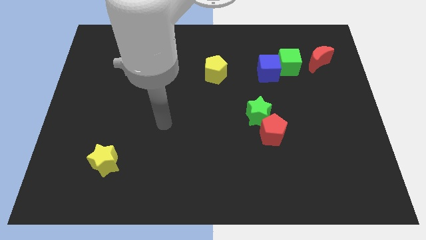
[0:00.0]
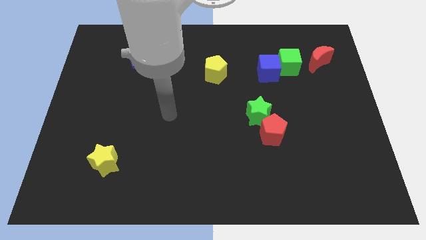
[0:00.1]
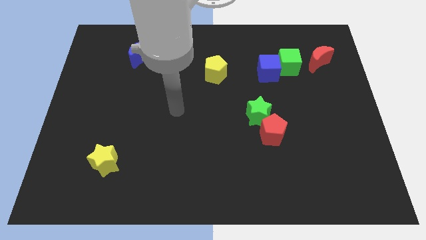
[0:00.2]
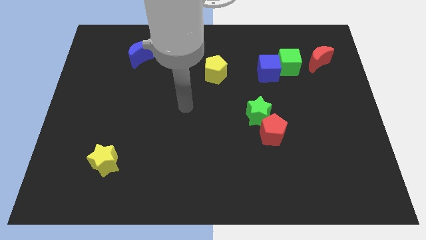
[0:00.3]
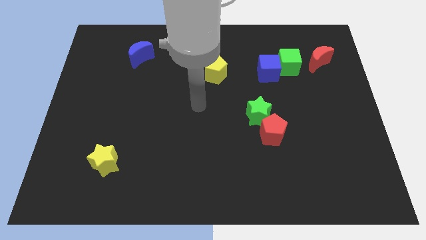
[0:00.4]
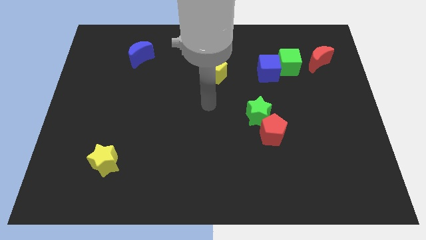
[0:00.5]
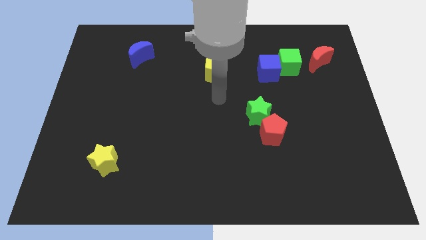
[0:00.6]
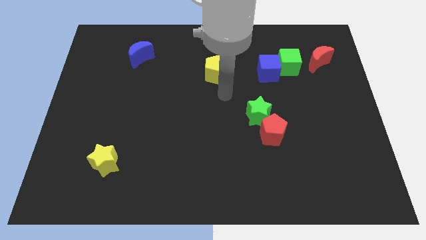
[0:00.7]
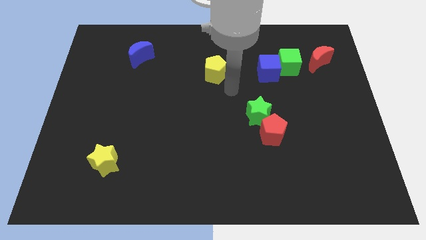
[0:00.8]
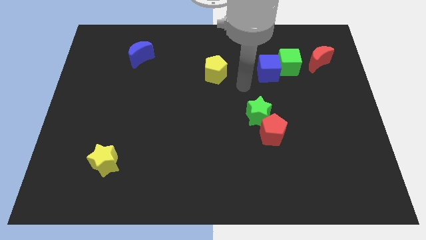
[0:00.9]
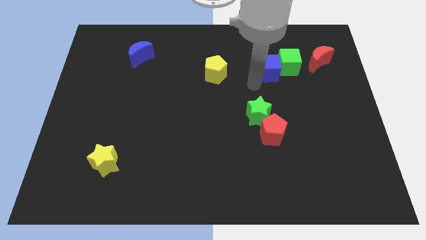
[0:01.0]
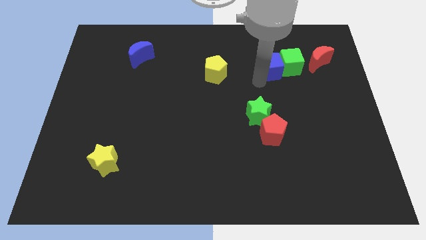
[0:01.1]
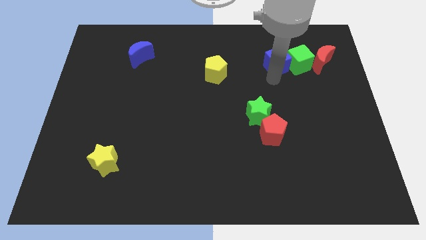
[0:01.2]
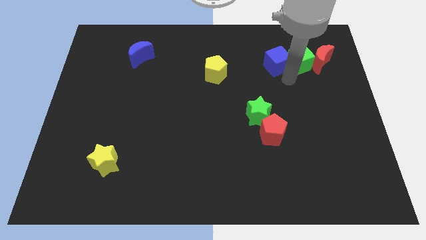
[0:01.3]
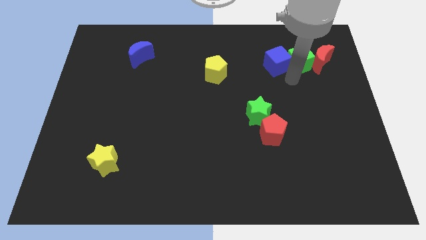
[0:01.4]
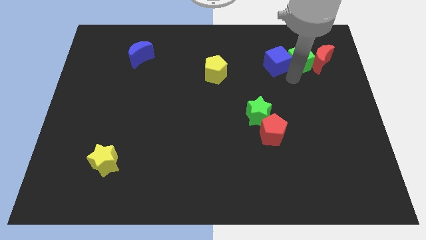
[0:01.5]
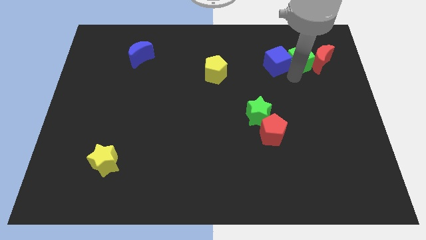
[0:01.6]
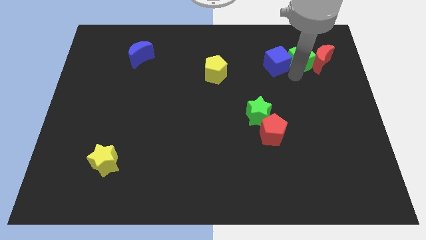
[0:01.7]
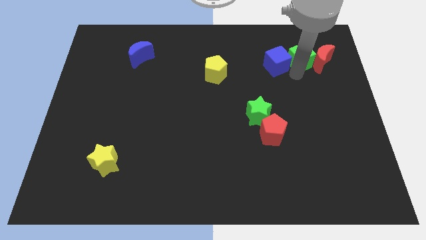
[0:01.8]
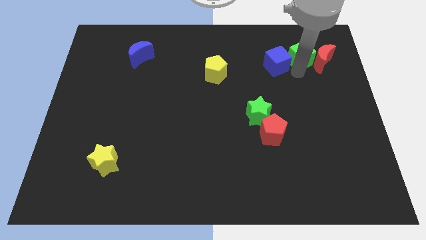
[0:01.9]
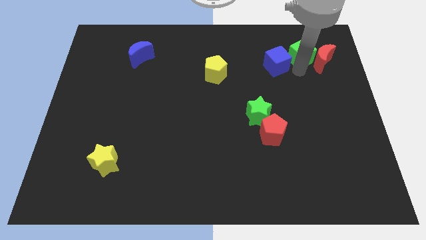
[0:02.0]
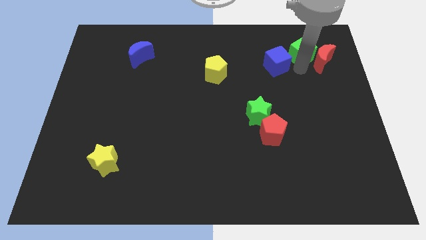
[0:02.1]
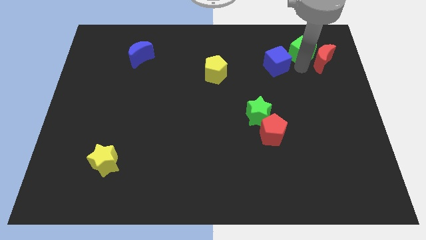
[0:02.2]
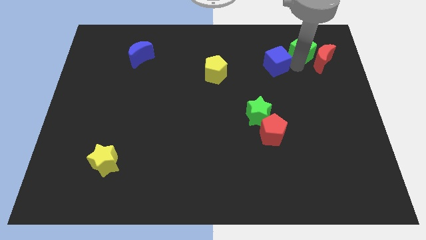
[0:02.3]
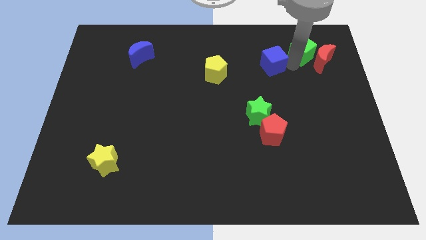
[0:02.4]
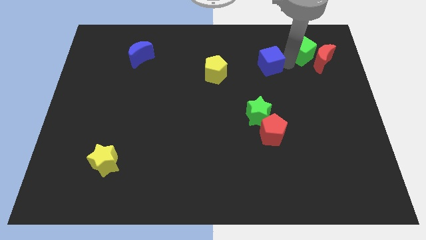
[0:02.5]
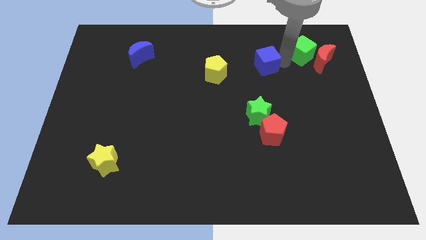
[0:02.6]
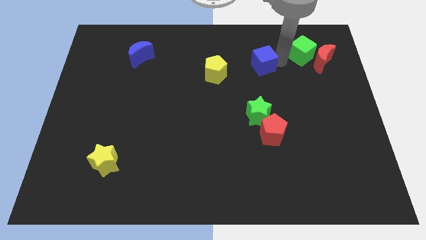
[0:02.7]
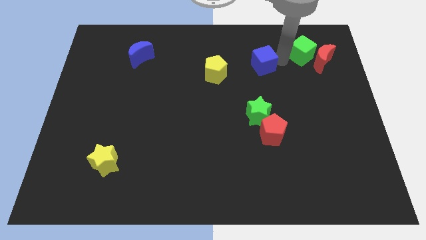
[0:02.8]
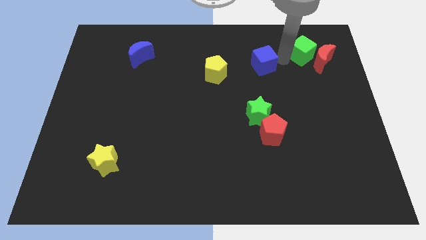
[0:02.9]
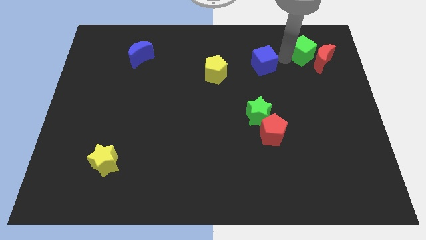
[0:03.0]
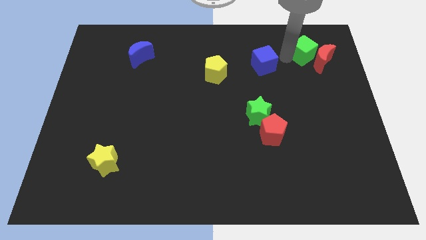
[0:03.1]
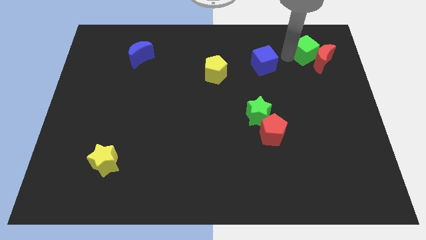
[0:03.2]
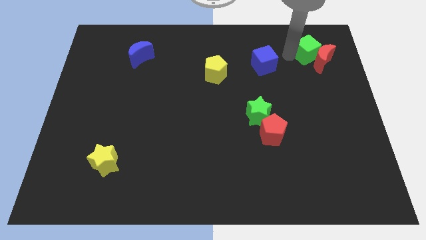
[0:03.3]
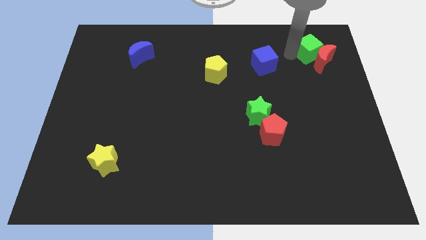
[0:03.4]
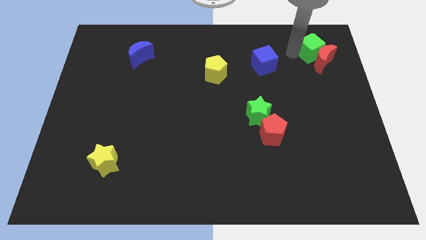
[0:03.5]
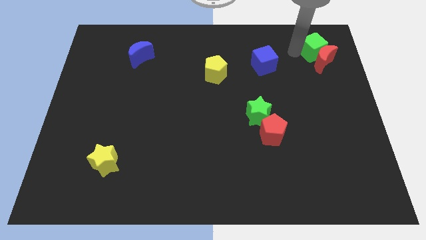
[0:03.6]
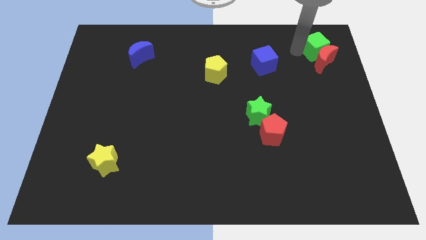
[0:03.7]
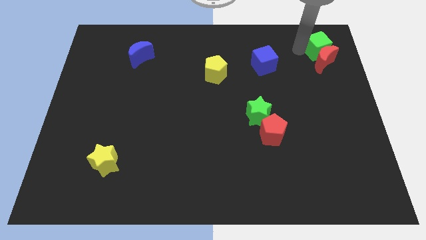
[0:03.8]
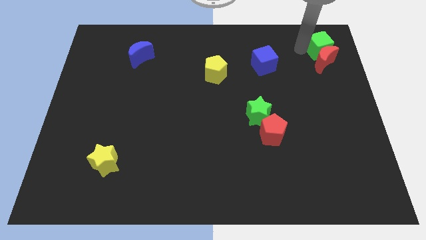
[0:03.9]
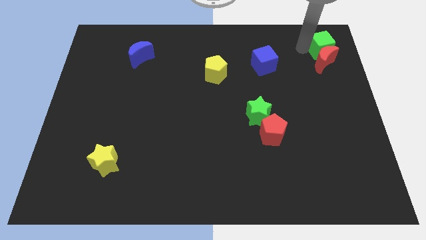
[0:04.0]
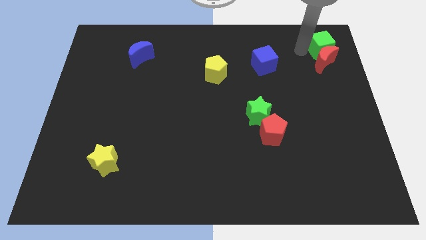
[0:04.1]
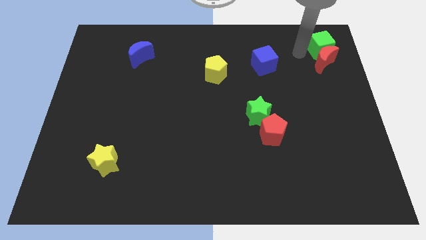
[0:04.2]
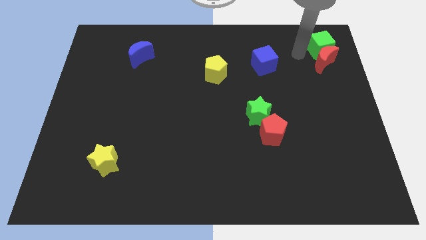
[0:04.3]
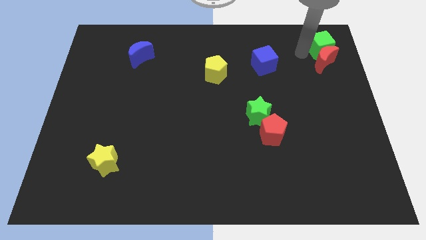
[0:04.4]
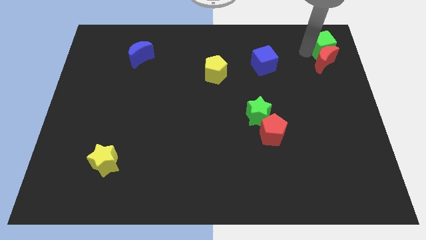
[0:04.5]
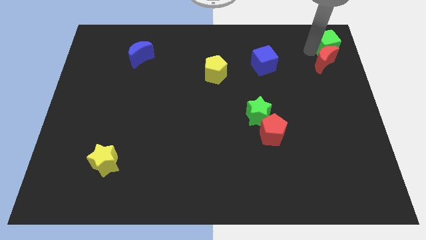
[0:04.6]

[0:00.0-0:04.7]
move the green cube to the top right of the board

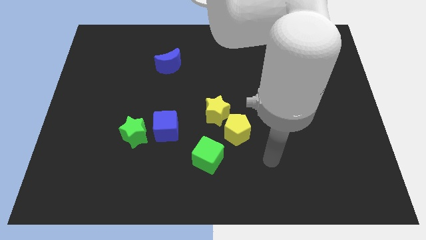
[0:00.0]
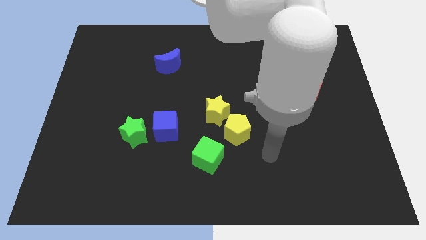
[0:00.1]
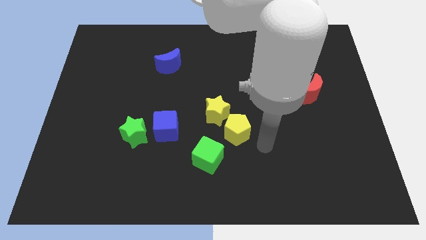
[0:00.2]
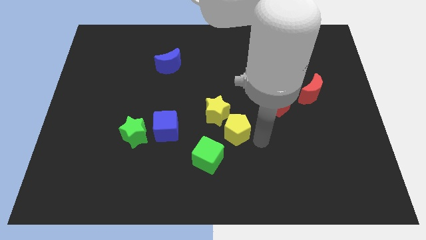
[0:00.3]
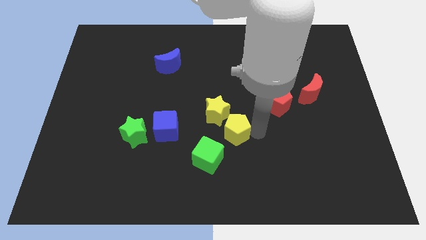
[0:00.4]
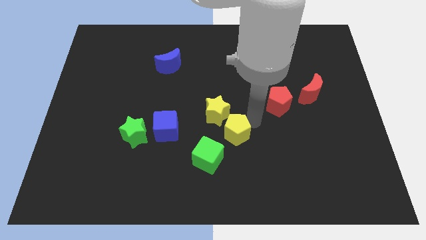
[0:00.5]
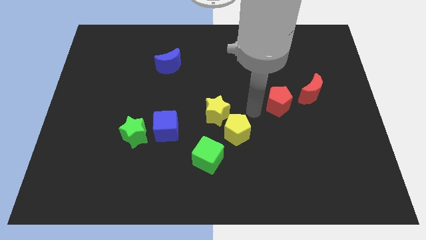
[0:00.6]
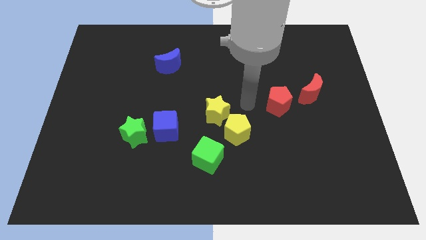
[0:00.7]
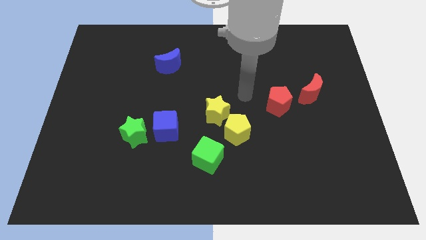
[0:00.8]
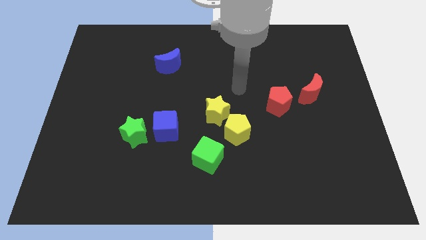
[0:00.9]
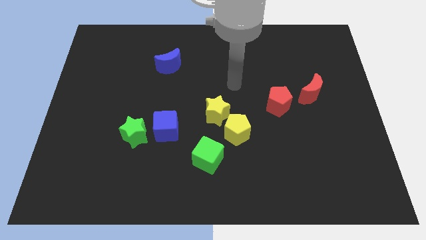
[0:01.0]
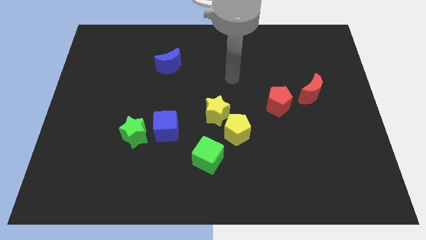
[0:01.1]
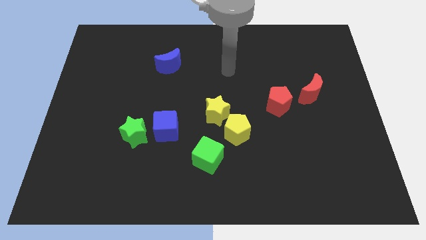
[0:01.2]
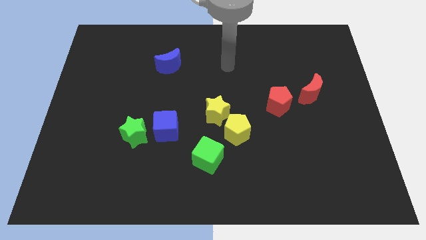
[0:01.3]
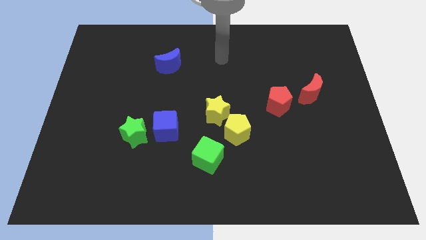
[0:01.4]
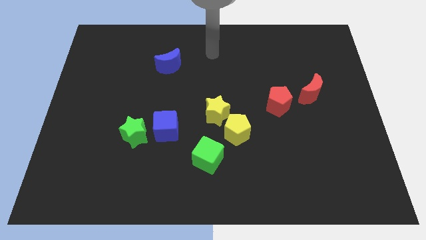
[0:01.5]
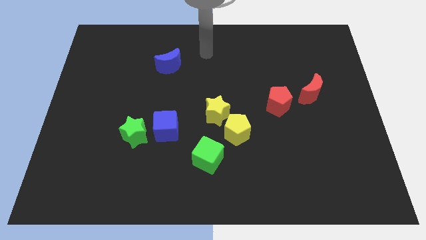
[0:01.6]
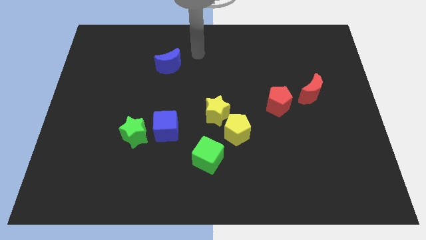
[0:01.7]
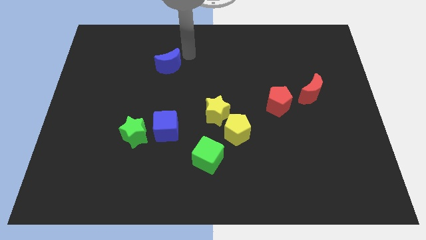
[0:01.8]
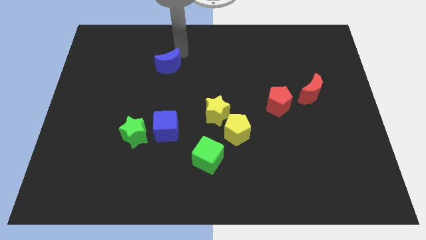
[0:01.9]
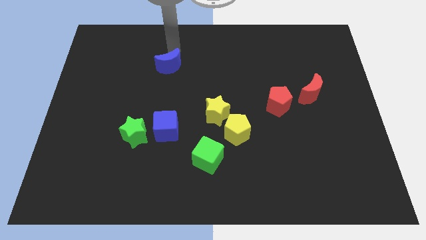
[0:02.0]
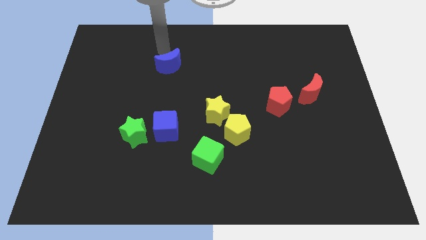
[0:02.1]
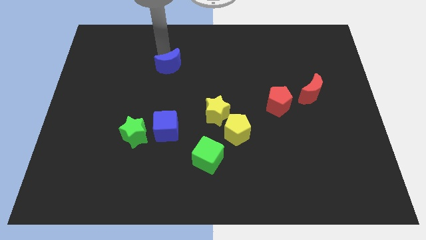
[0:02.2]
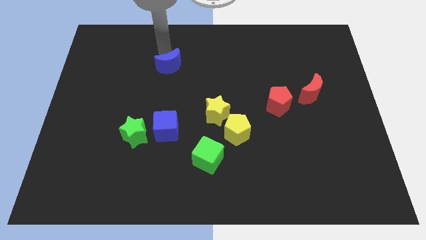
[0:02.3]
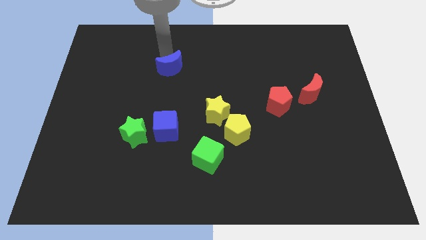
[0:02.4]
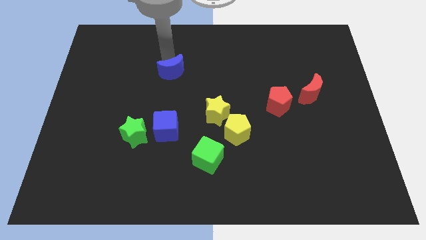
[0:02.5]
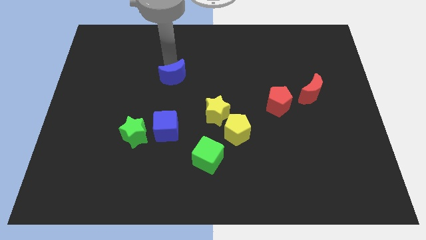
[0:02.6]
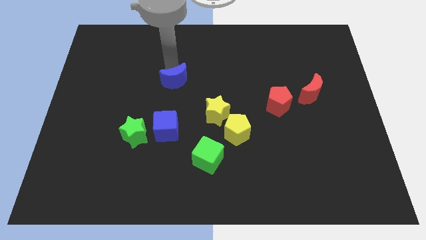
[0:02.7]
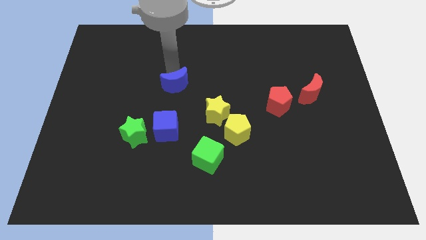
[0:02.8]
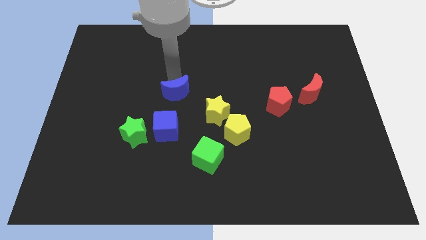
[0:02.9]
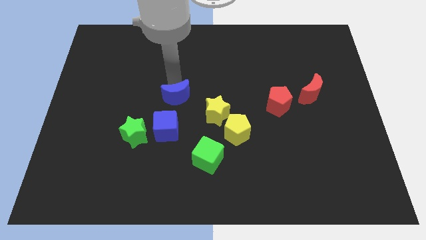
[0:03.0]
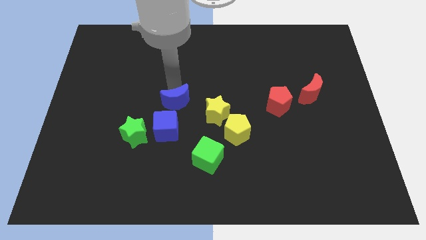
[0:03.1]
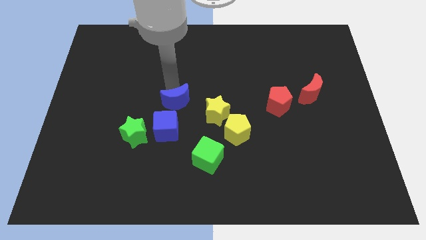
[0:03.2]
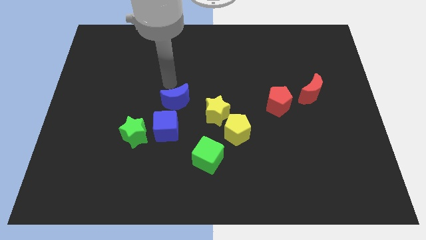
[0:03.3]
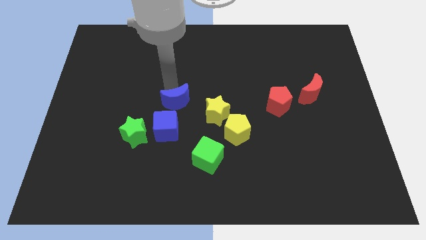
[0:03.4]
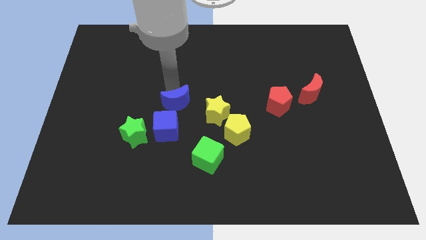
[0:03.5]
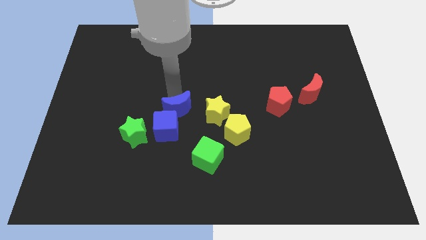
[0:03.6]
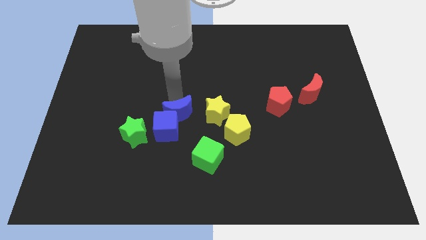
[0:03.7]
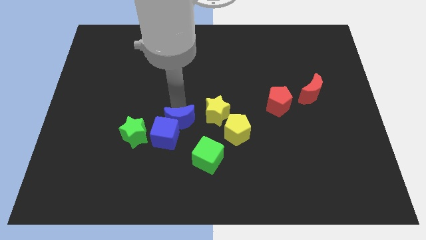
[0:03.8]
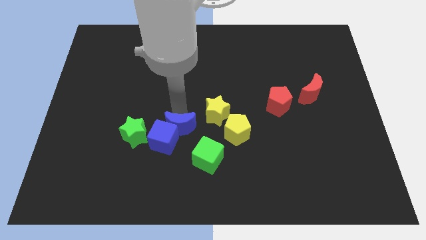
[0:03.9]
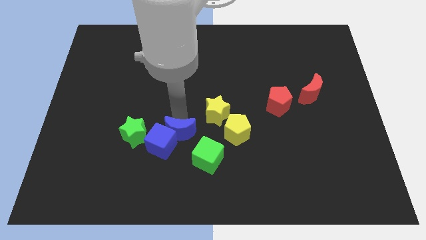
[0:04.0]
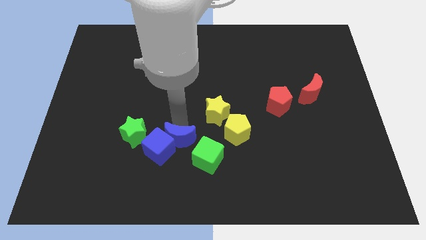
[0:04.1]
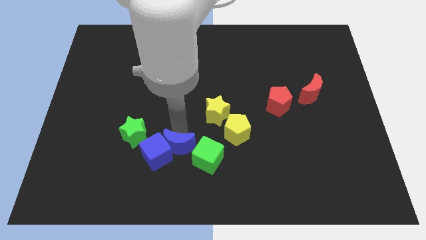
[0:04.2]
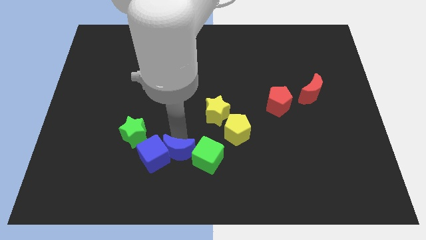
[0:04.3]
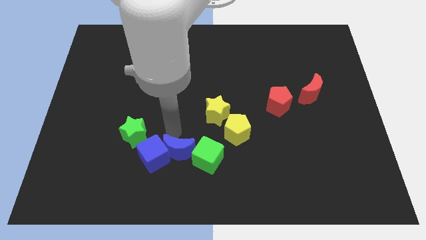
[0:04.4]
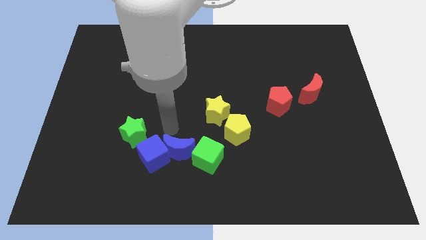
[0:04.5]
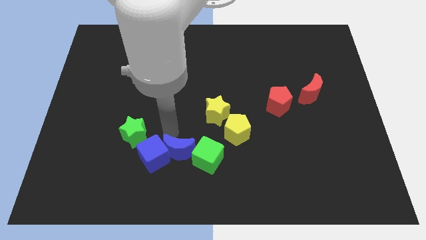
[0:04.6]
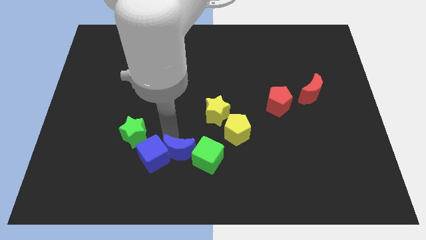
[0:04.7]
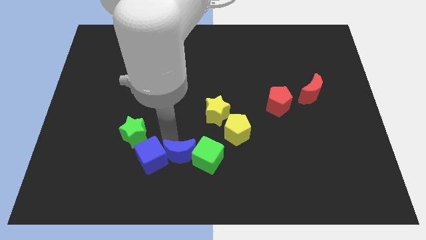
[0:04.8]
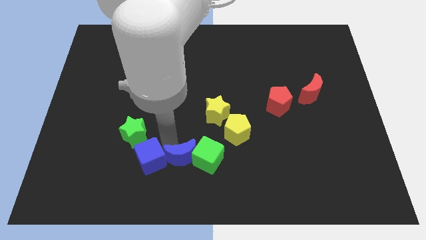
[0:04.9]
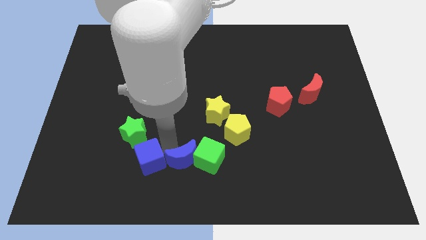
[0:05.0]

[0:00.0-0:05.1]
push the blue moon to the bottom
